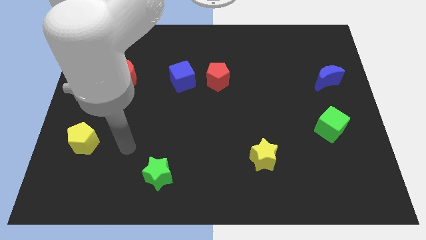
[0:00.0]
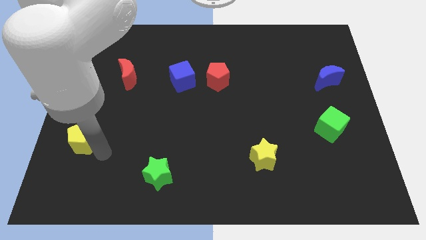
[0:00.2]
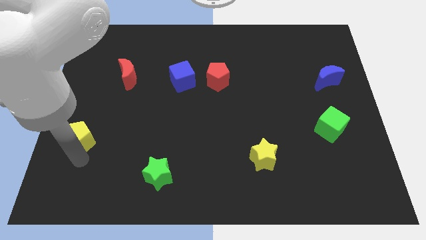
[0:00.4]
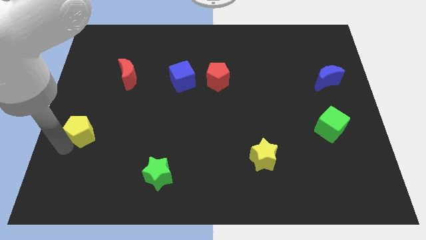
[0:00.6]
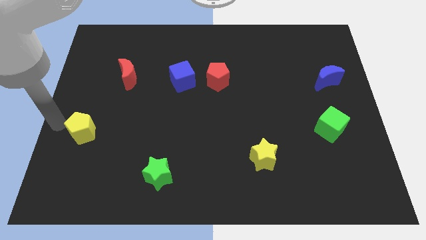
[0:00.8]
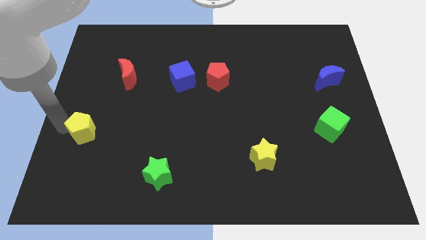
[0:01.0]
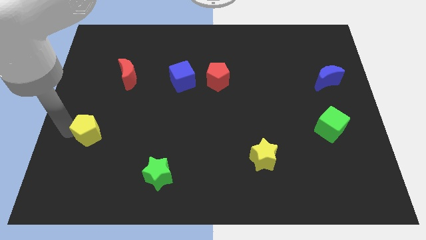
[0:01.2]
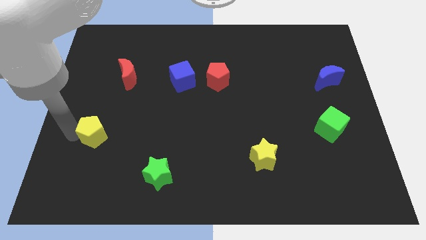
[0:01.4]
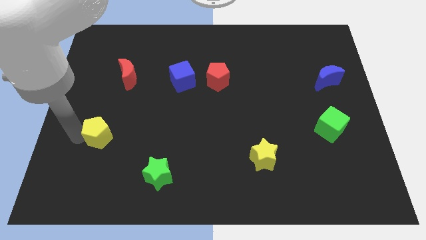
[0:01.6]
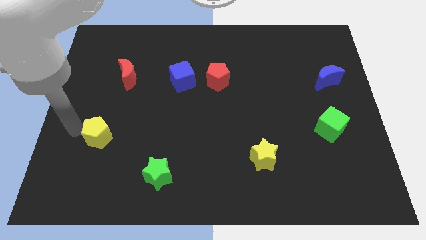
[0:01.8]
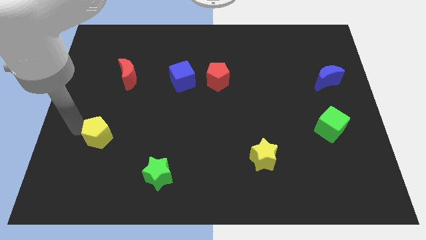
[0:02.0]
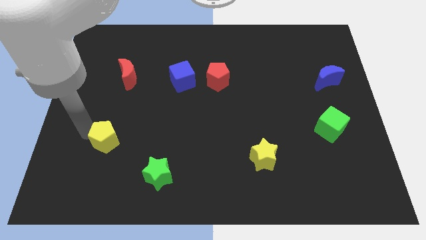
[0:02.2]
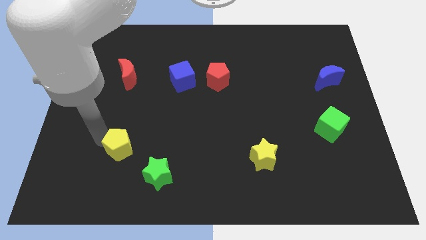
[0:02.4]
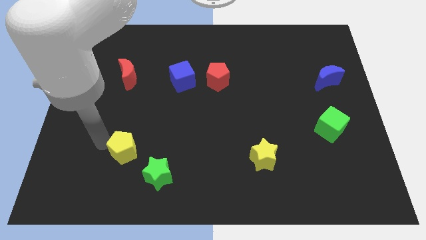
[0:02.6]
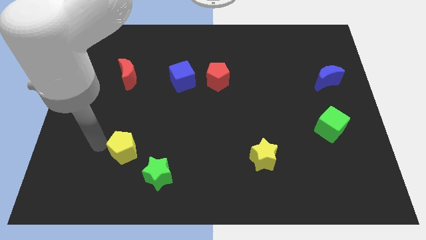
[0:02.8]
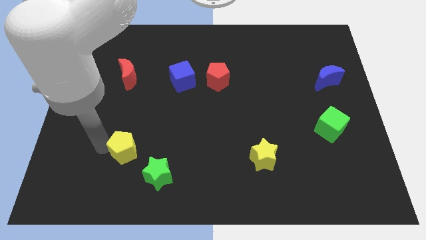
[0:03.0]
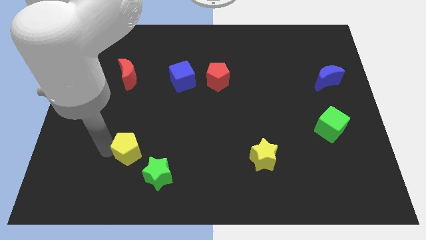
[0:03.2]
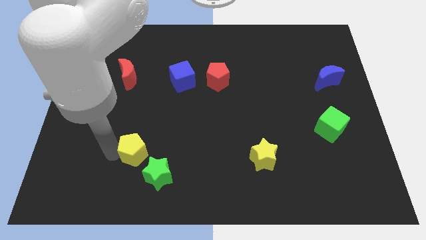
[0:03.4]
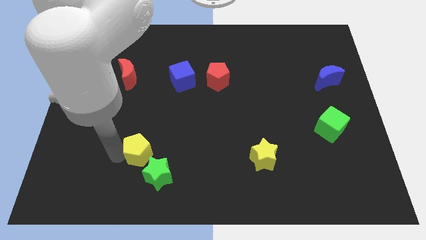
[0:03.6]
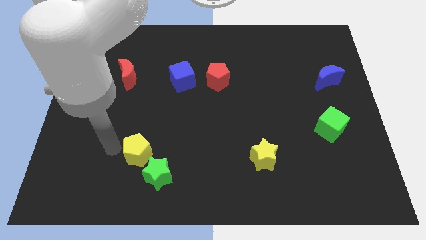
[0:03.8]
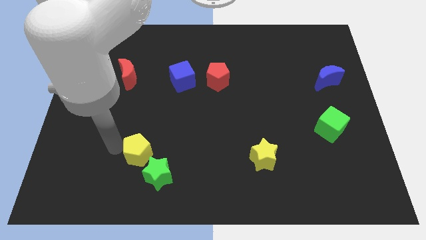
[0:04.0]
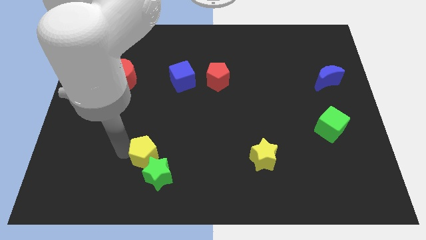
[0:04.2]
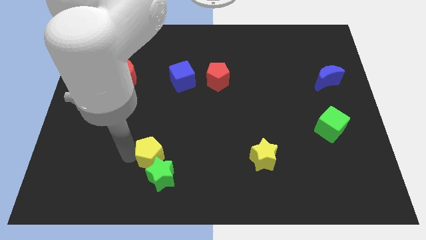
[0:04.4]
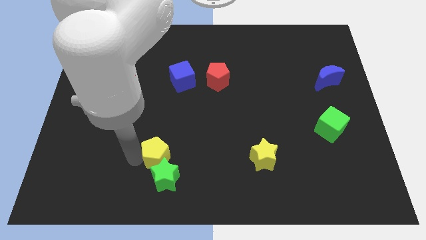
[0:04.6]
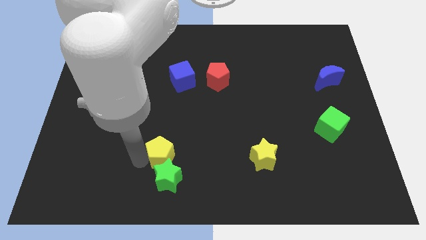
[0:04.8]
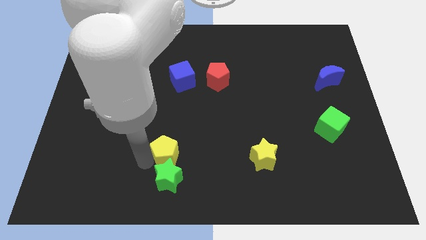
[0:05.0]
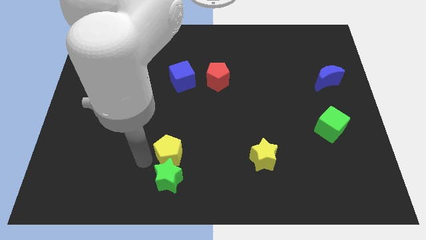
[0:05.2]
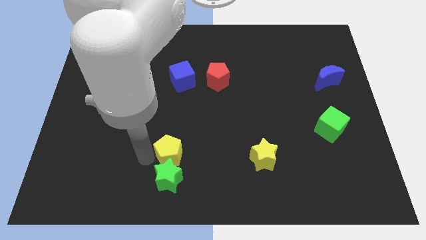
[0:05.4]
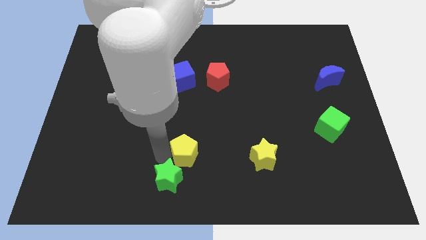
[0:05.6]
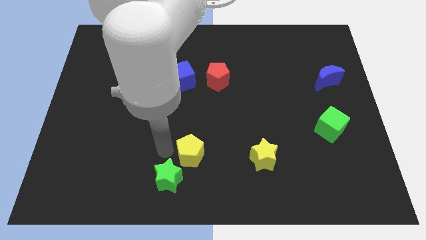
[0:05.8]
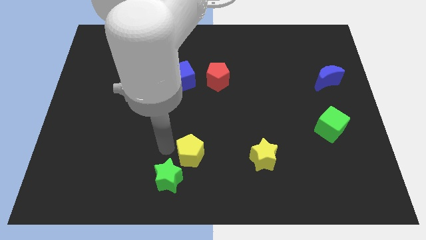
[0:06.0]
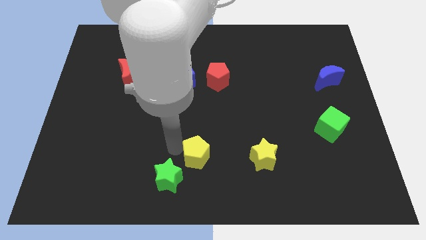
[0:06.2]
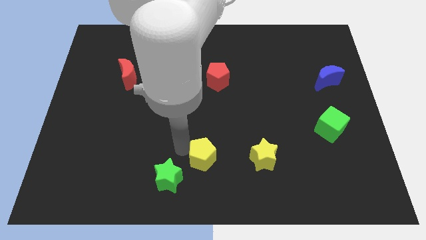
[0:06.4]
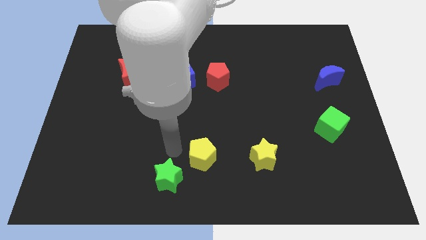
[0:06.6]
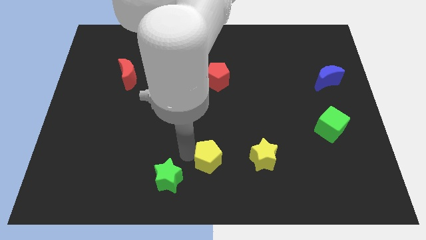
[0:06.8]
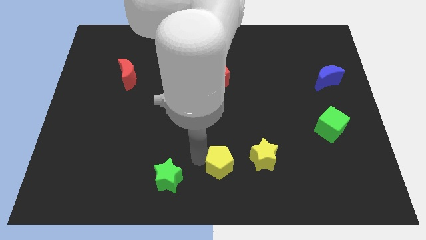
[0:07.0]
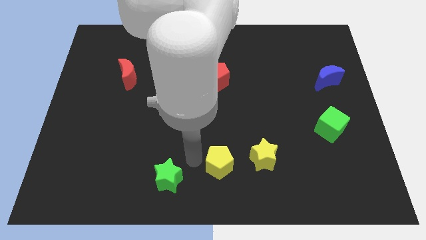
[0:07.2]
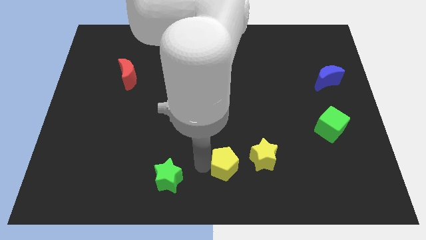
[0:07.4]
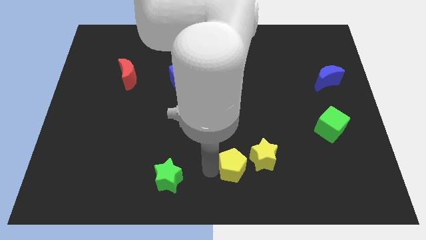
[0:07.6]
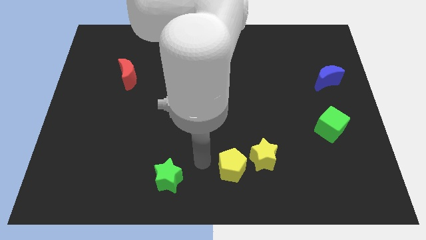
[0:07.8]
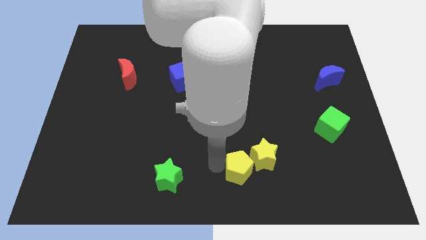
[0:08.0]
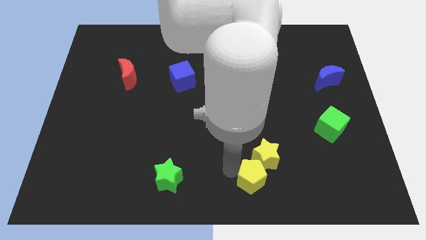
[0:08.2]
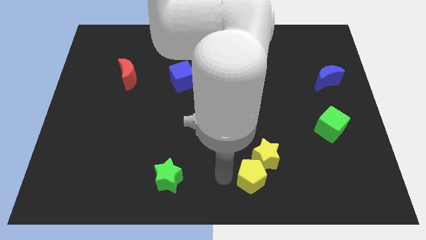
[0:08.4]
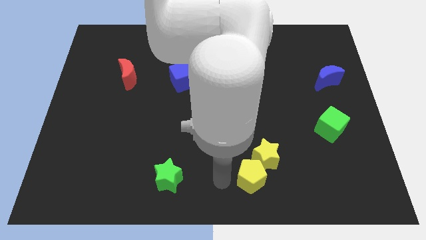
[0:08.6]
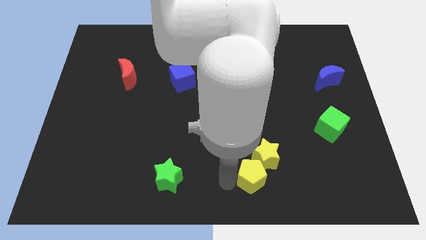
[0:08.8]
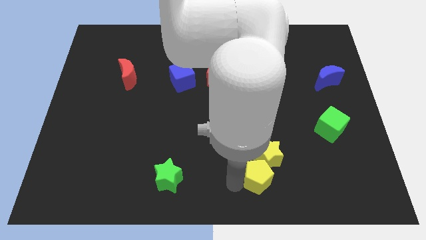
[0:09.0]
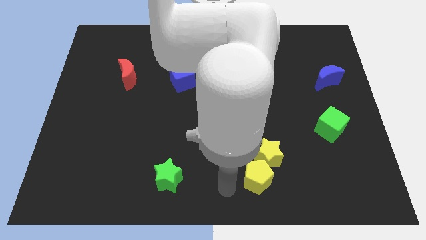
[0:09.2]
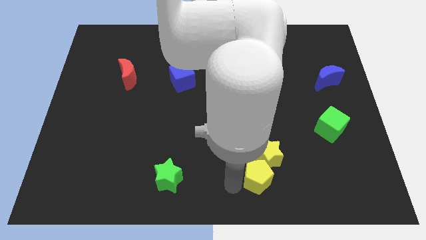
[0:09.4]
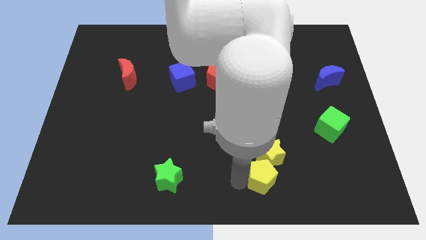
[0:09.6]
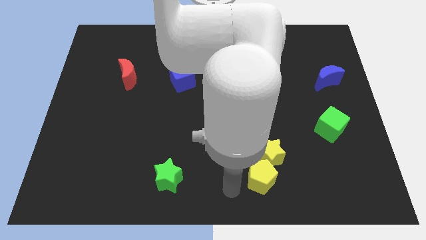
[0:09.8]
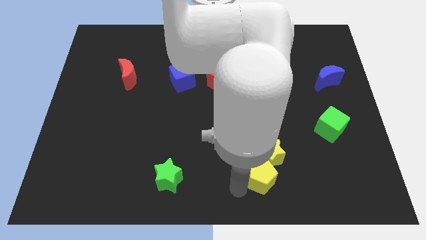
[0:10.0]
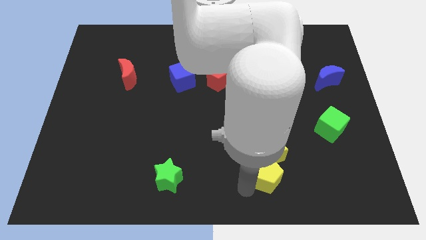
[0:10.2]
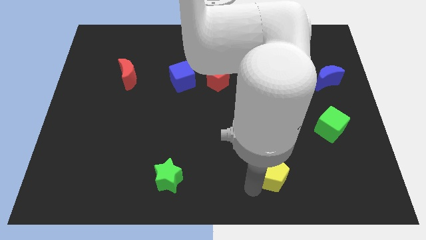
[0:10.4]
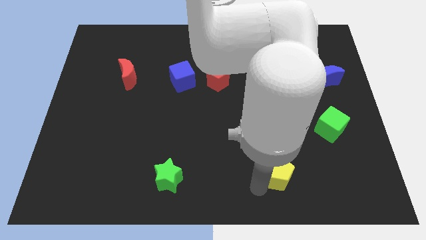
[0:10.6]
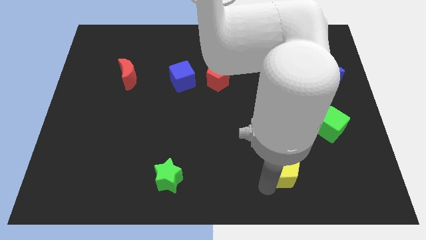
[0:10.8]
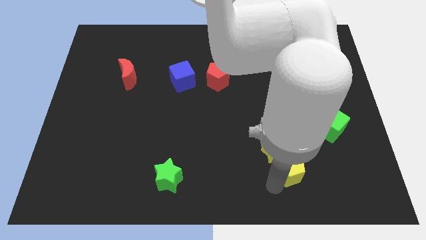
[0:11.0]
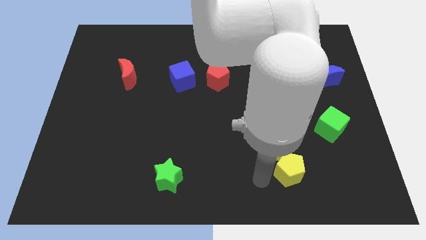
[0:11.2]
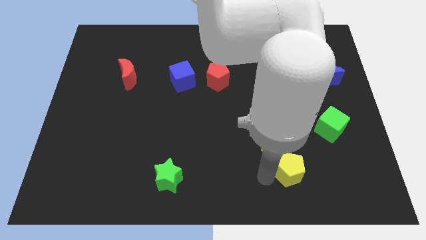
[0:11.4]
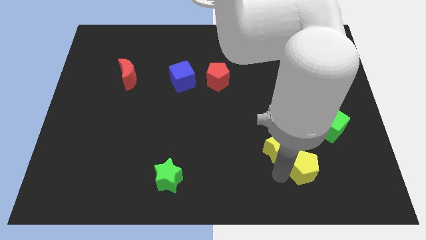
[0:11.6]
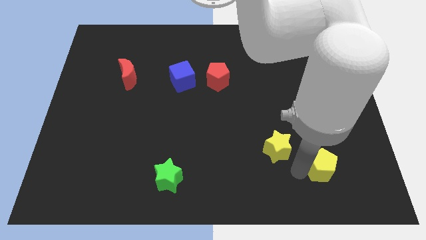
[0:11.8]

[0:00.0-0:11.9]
slide the yellow pentagon below the green cube

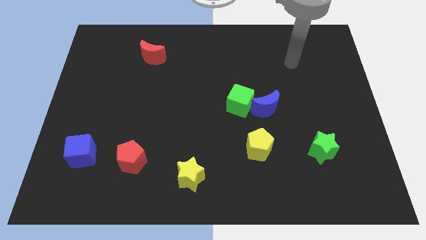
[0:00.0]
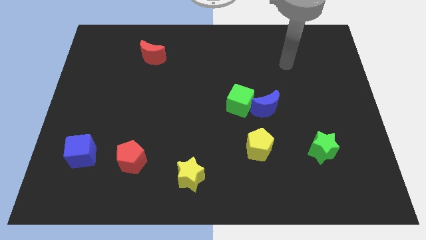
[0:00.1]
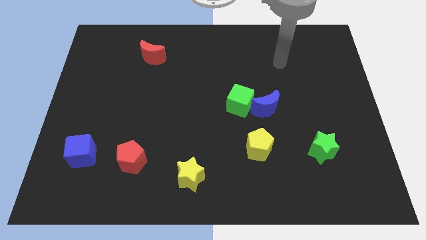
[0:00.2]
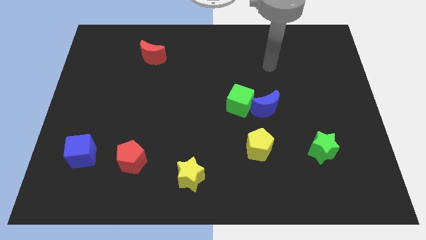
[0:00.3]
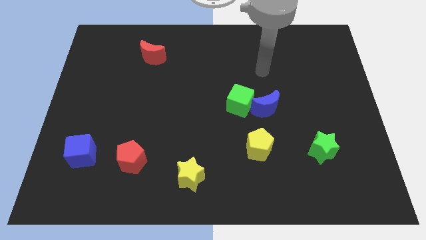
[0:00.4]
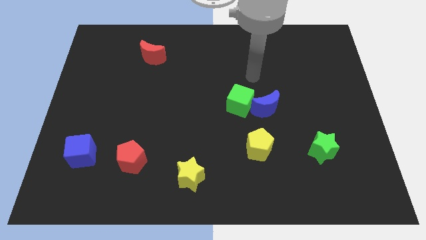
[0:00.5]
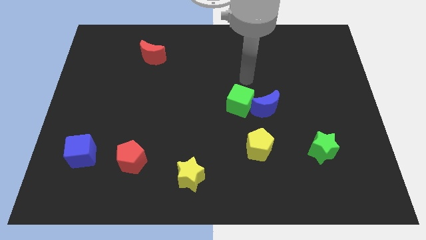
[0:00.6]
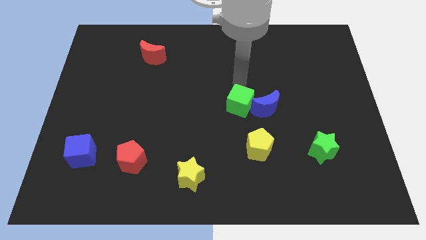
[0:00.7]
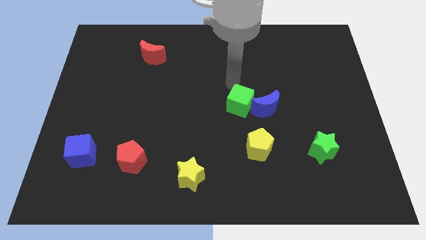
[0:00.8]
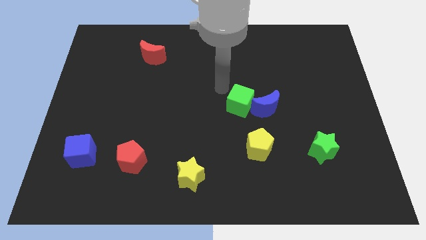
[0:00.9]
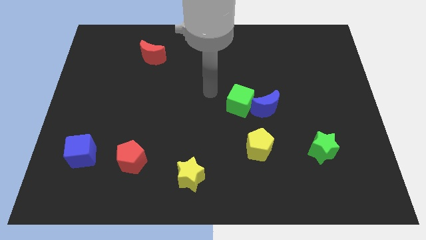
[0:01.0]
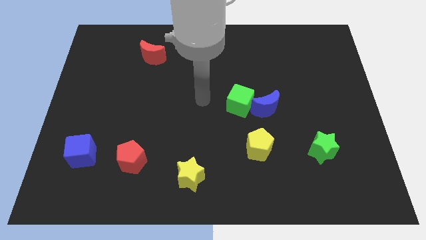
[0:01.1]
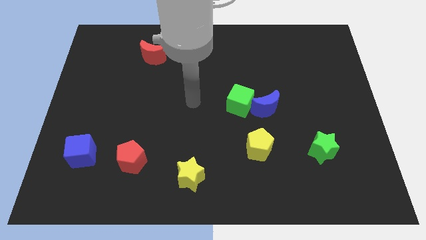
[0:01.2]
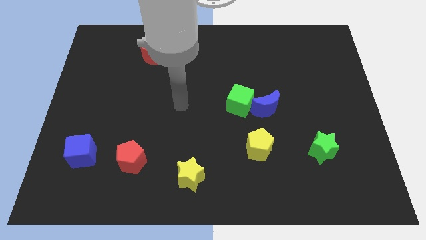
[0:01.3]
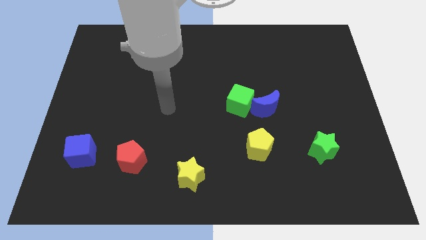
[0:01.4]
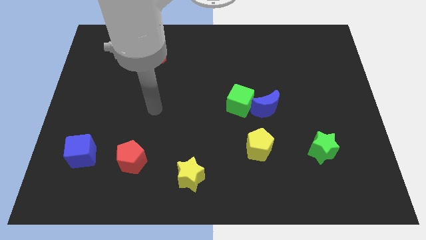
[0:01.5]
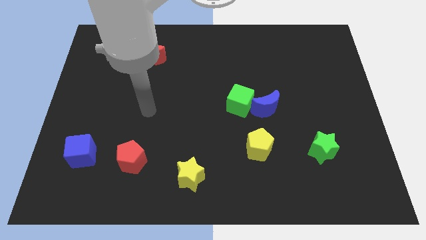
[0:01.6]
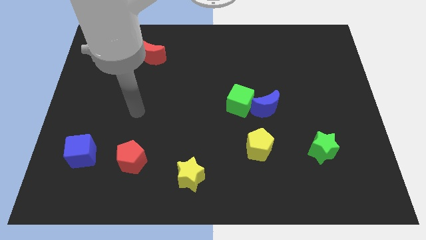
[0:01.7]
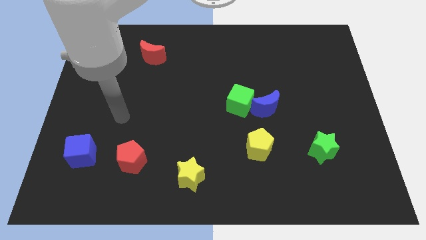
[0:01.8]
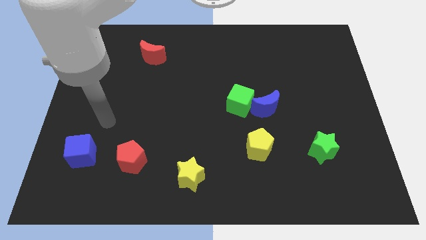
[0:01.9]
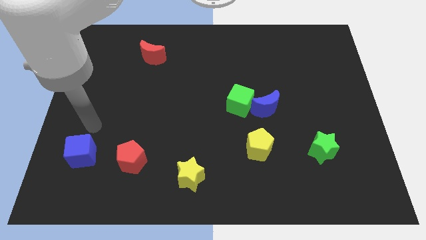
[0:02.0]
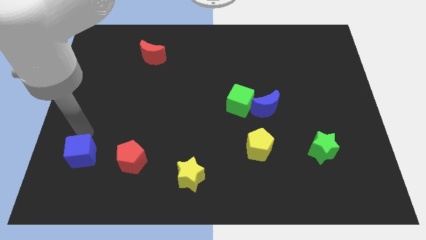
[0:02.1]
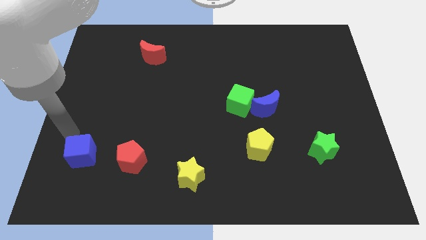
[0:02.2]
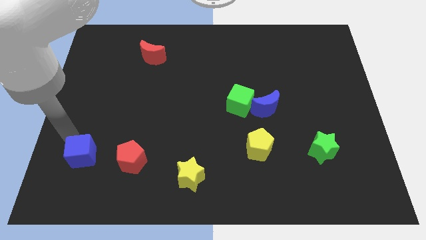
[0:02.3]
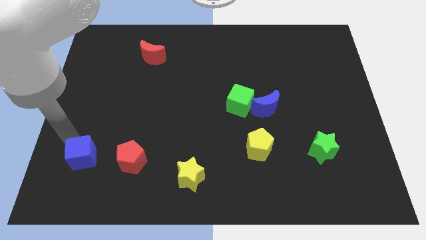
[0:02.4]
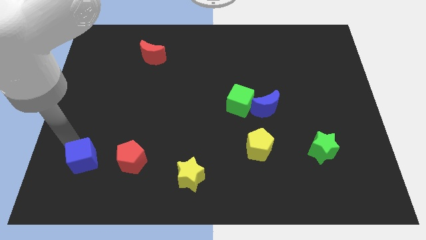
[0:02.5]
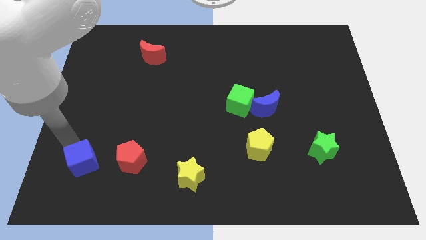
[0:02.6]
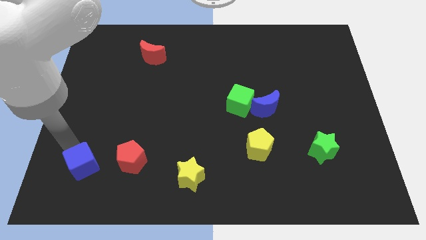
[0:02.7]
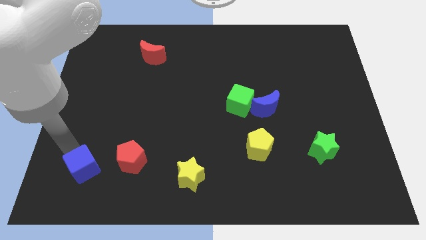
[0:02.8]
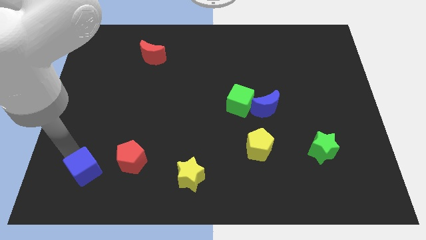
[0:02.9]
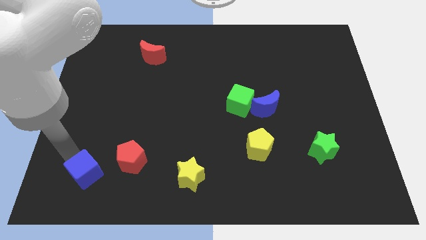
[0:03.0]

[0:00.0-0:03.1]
slide the blue cube diagonally down and to the left of the red pentagon
